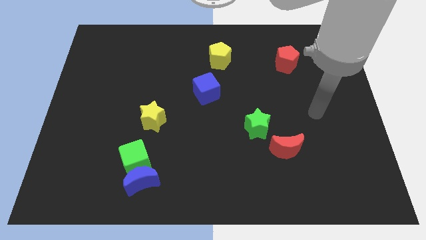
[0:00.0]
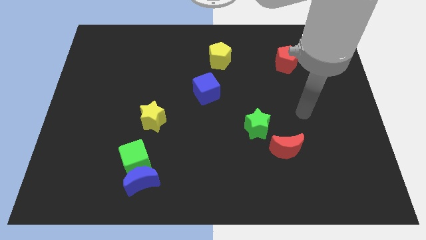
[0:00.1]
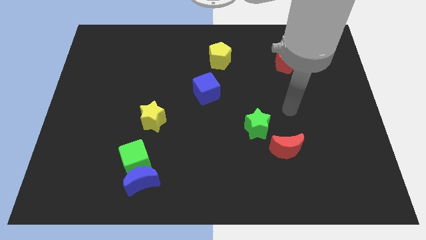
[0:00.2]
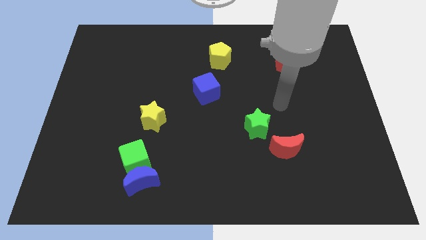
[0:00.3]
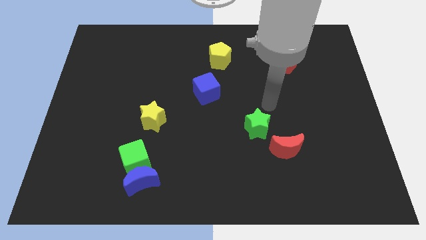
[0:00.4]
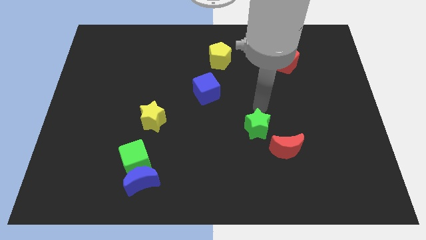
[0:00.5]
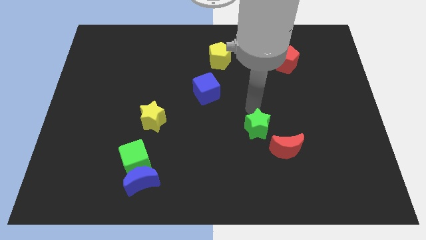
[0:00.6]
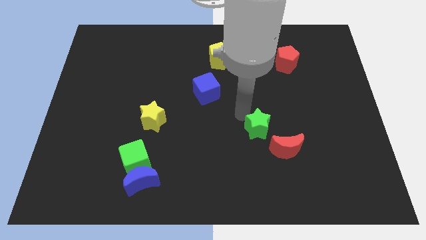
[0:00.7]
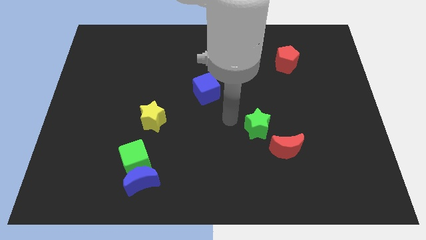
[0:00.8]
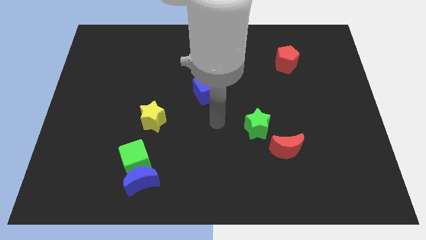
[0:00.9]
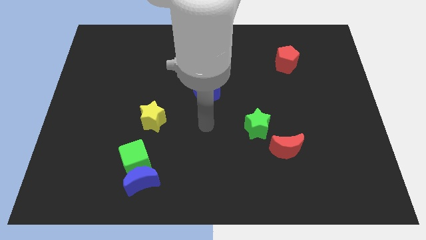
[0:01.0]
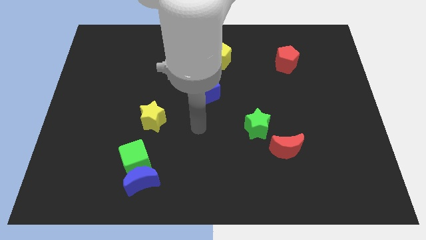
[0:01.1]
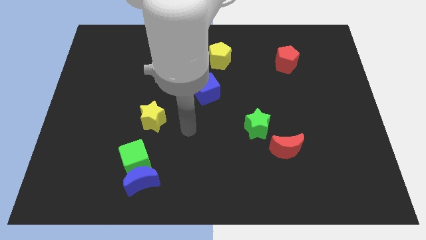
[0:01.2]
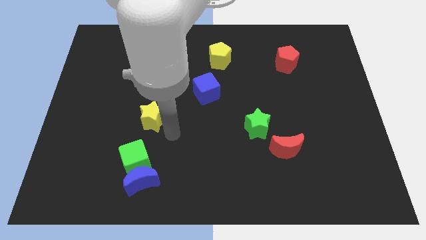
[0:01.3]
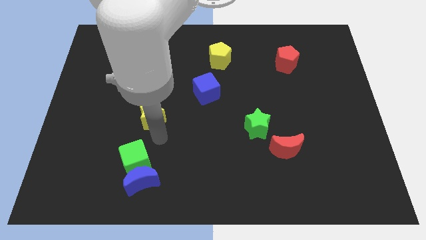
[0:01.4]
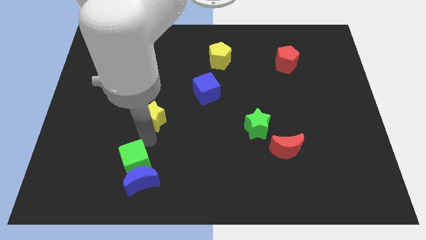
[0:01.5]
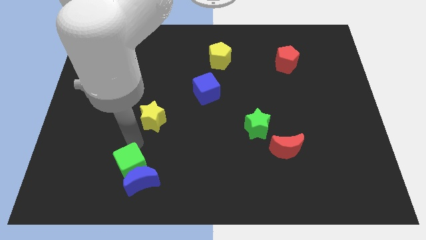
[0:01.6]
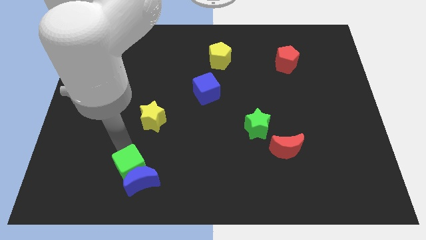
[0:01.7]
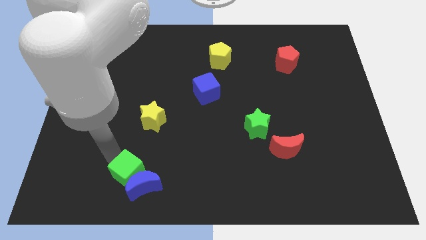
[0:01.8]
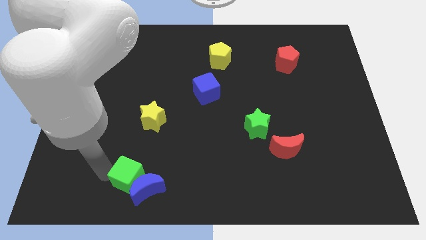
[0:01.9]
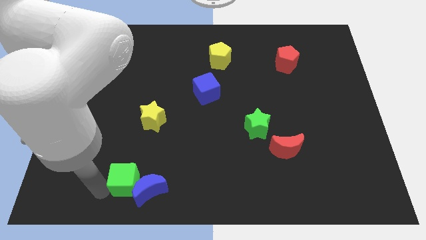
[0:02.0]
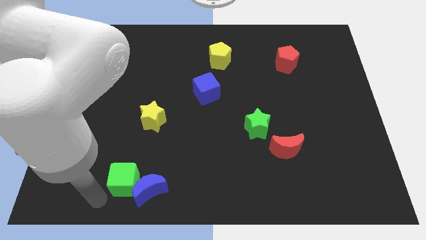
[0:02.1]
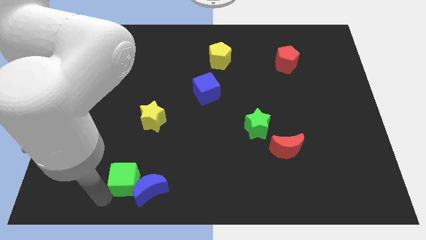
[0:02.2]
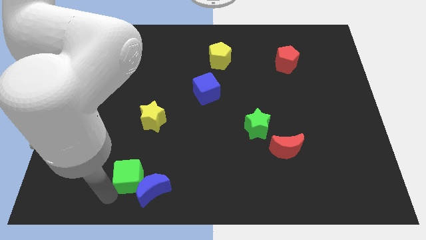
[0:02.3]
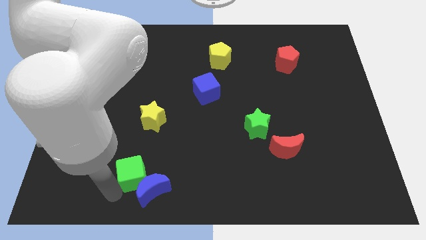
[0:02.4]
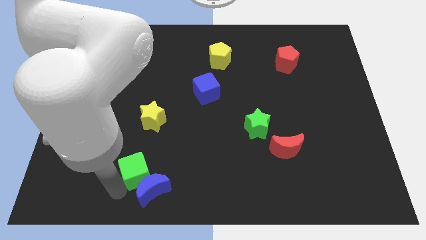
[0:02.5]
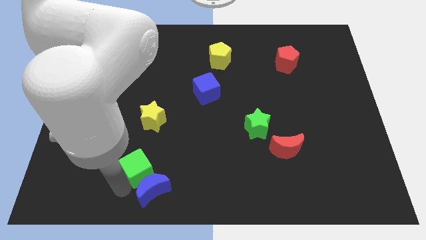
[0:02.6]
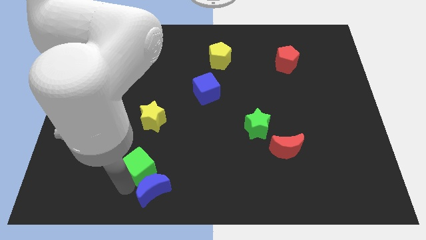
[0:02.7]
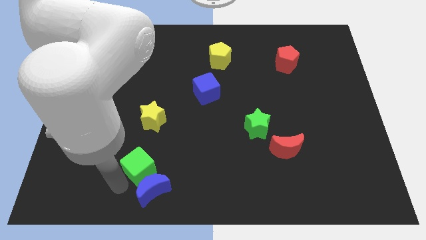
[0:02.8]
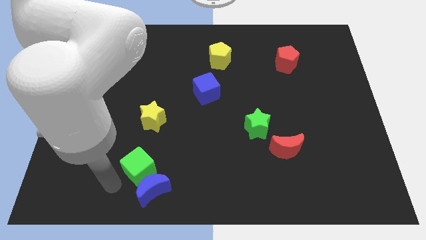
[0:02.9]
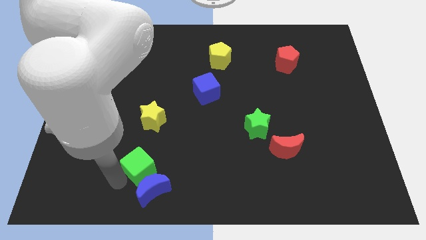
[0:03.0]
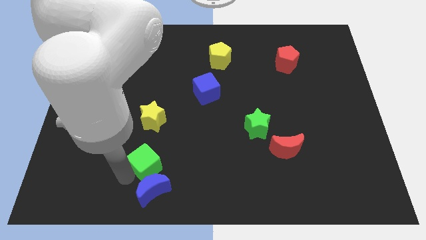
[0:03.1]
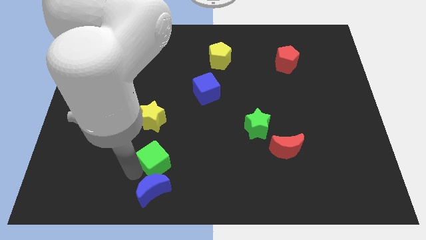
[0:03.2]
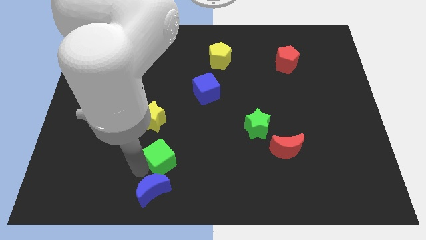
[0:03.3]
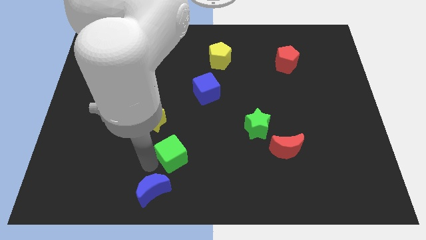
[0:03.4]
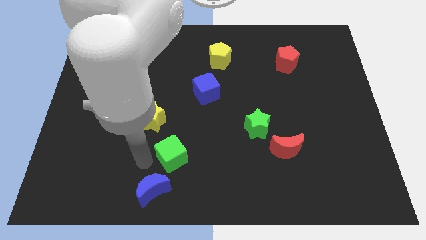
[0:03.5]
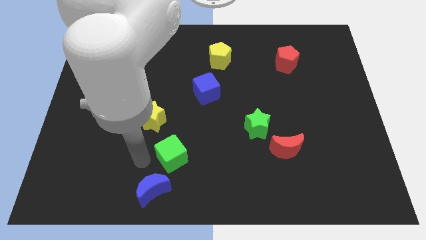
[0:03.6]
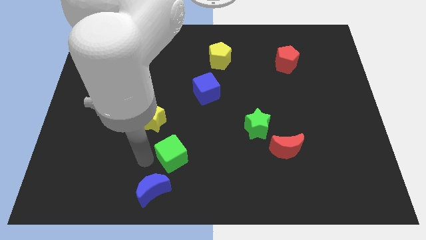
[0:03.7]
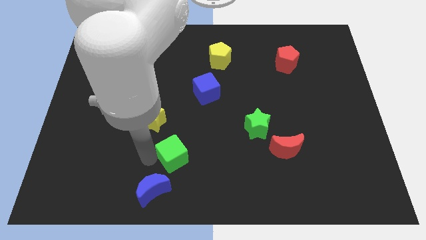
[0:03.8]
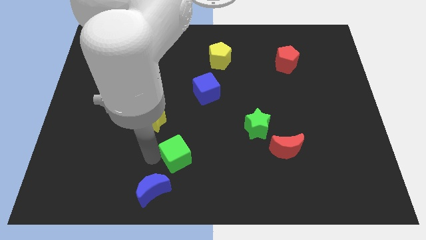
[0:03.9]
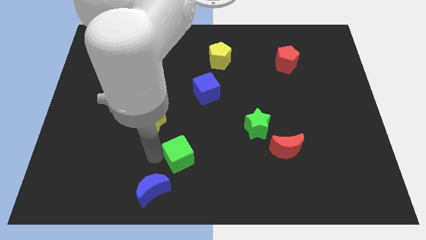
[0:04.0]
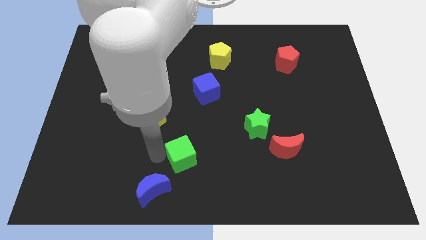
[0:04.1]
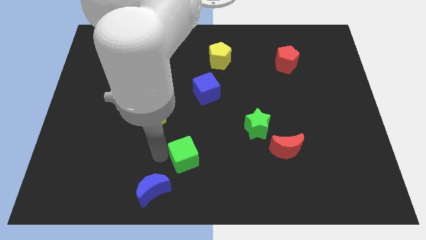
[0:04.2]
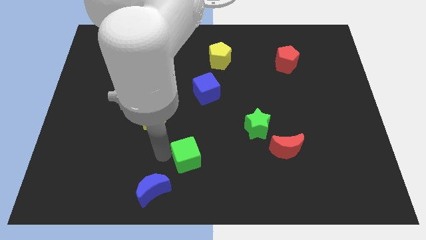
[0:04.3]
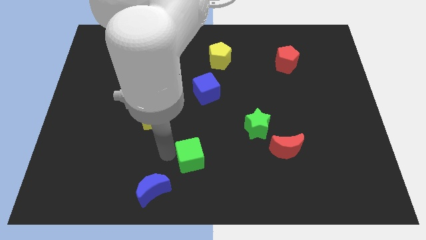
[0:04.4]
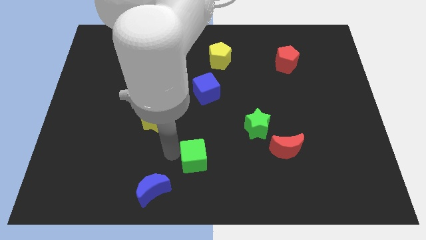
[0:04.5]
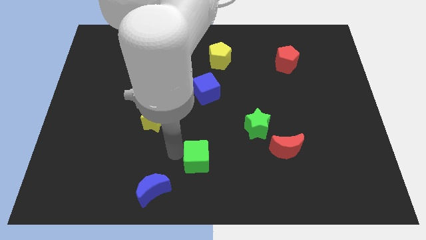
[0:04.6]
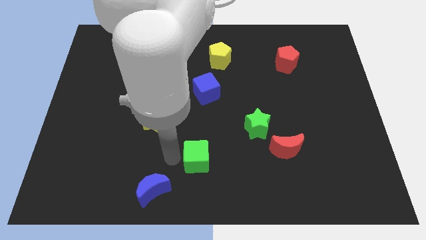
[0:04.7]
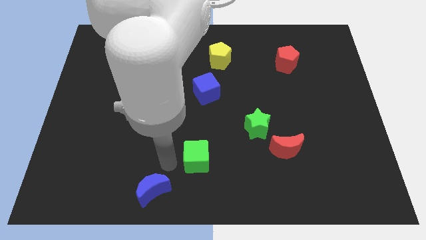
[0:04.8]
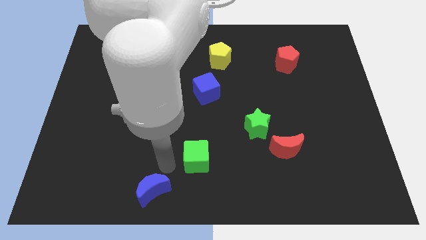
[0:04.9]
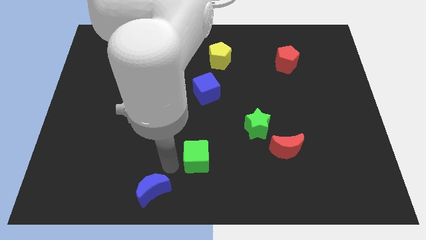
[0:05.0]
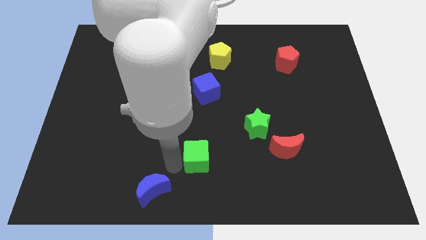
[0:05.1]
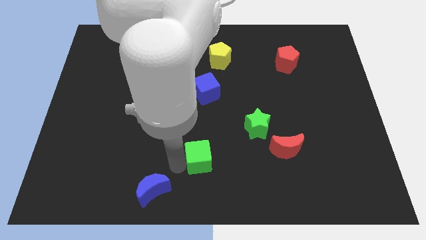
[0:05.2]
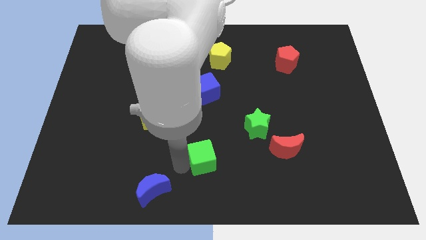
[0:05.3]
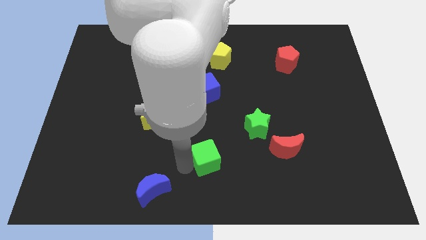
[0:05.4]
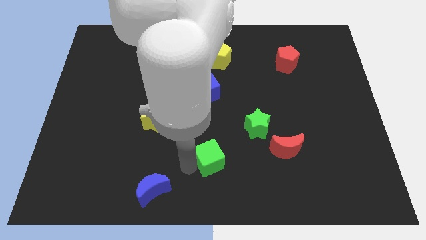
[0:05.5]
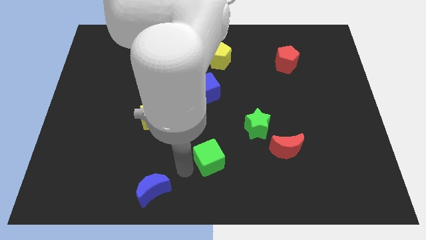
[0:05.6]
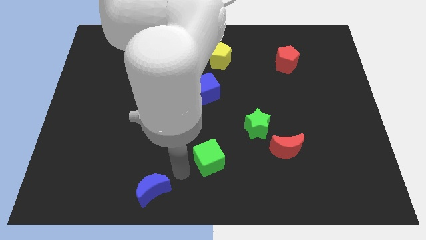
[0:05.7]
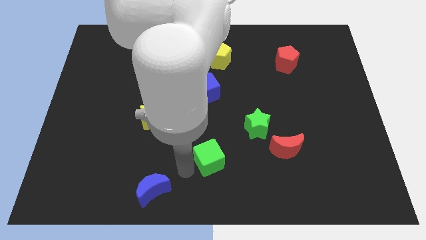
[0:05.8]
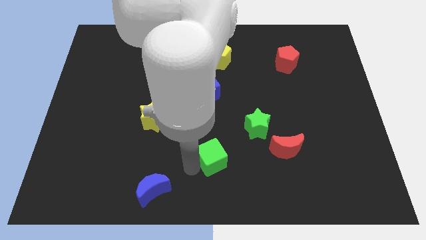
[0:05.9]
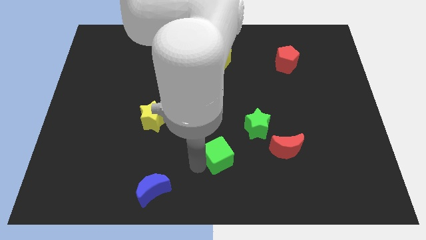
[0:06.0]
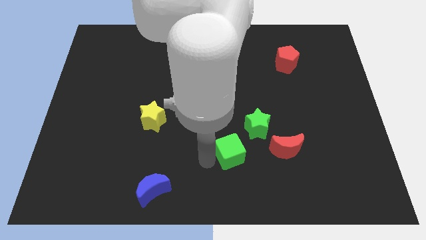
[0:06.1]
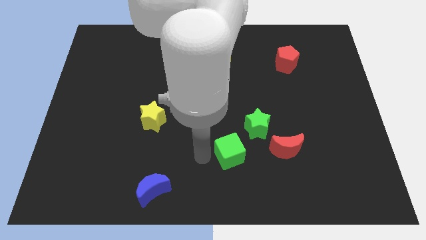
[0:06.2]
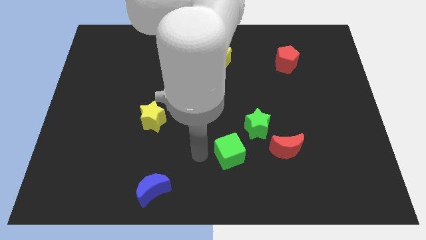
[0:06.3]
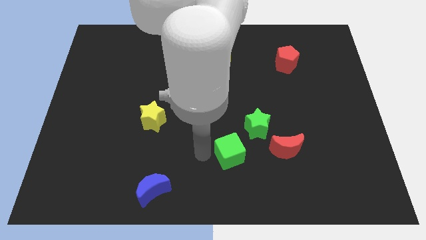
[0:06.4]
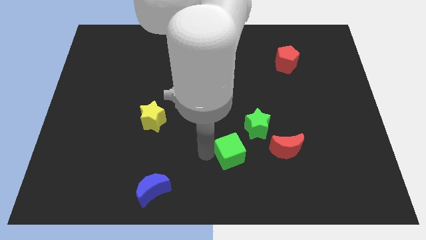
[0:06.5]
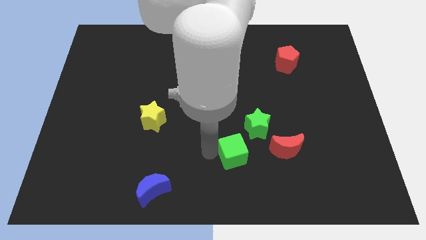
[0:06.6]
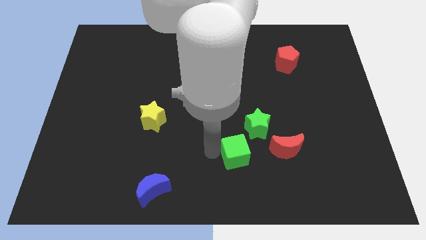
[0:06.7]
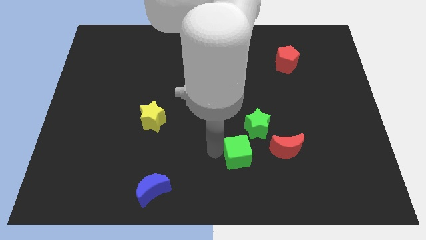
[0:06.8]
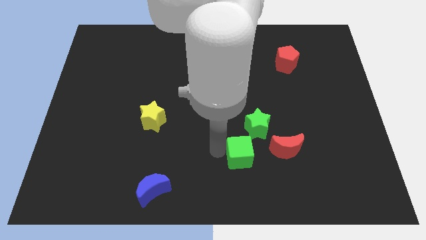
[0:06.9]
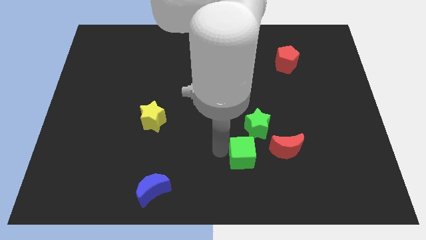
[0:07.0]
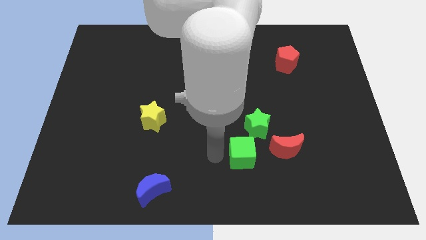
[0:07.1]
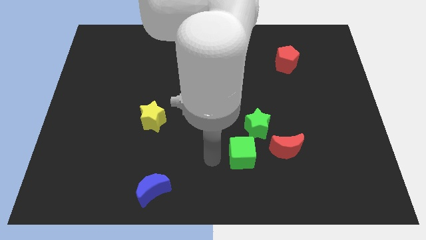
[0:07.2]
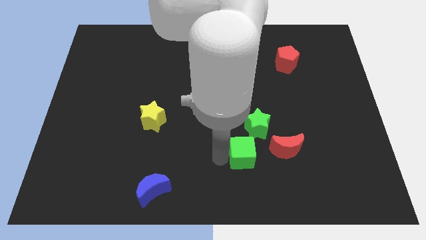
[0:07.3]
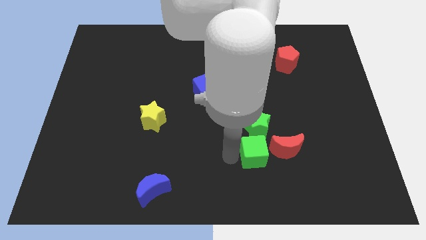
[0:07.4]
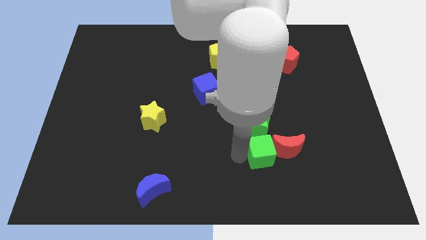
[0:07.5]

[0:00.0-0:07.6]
move the green cube to the red moon

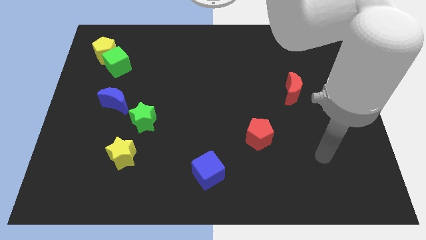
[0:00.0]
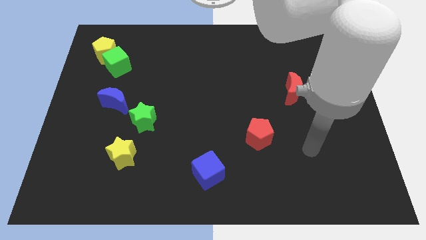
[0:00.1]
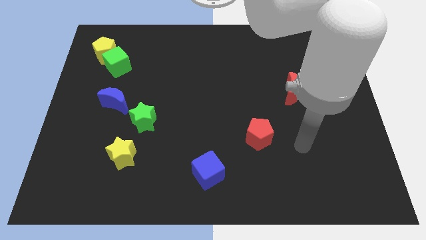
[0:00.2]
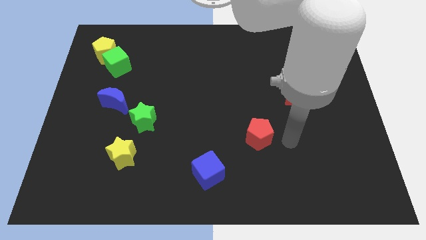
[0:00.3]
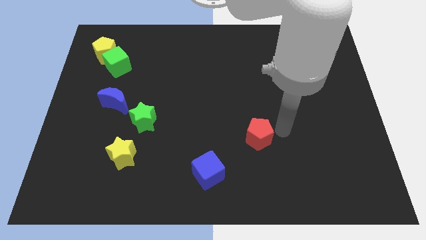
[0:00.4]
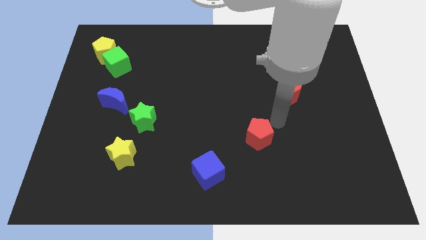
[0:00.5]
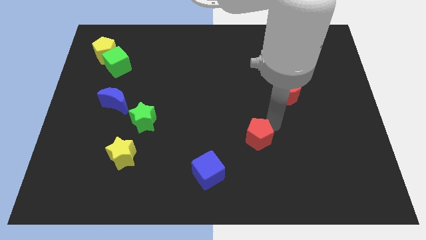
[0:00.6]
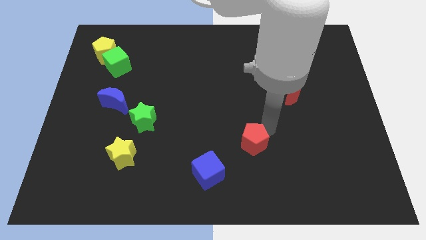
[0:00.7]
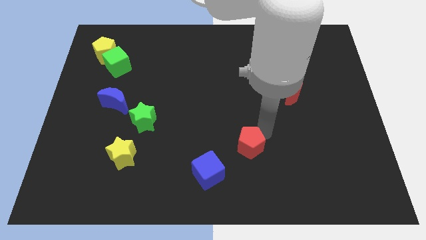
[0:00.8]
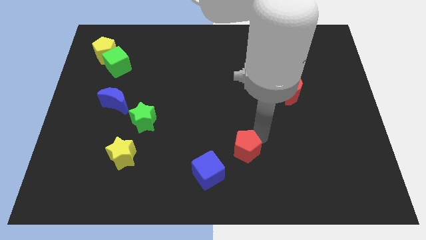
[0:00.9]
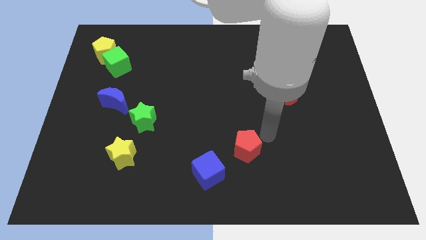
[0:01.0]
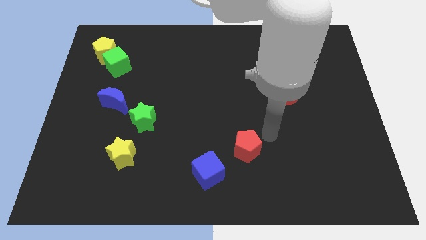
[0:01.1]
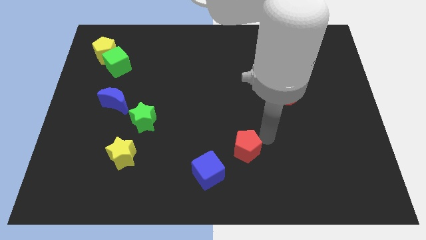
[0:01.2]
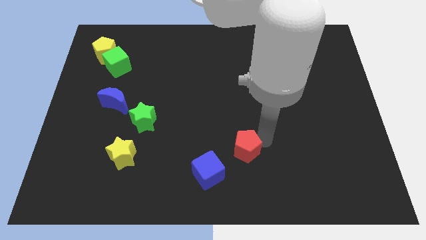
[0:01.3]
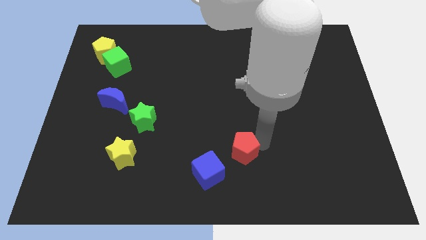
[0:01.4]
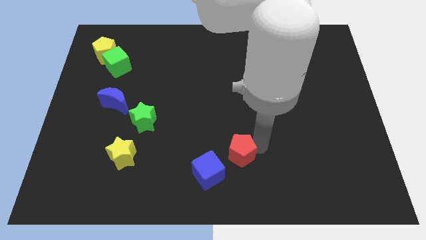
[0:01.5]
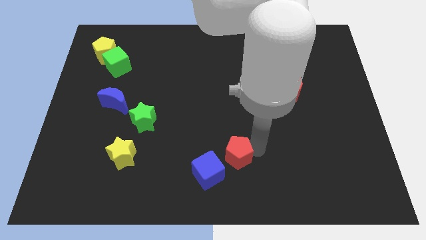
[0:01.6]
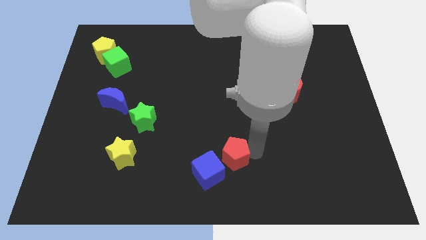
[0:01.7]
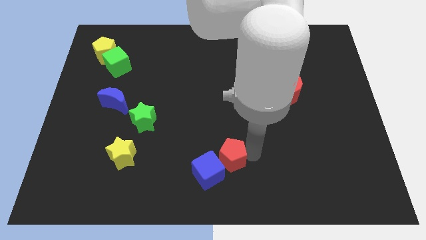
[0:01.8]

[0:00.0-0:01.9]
push the red pentagon next to the blue cube
